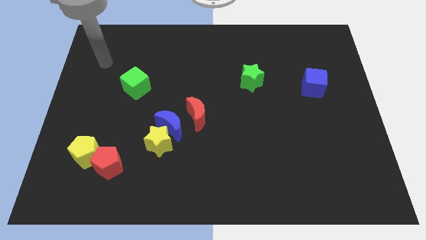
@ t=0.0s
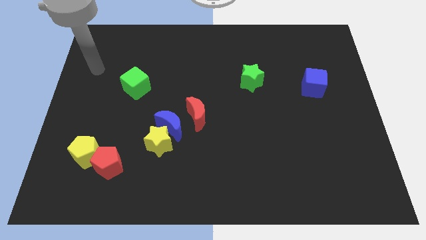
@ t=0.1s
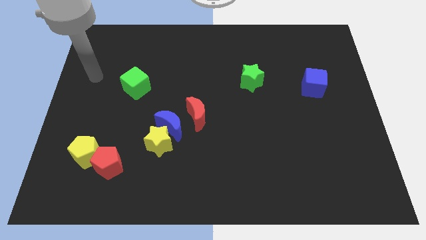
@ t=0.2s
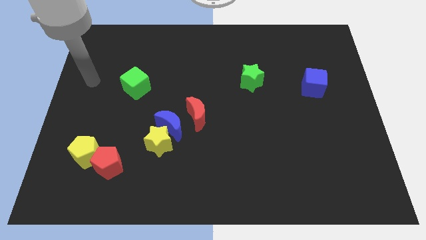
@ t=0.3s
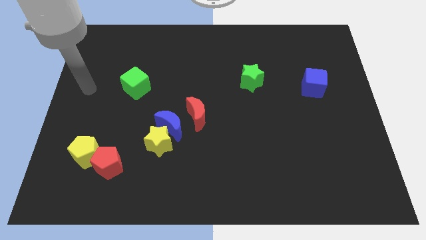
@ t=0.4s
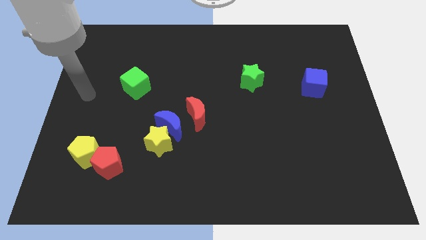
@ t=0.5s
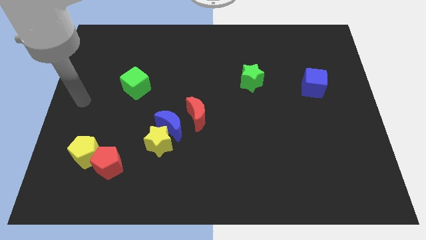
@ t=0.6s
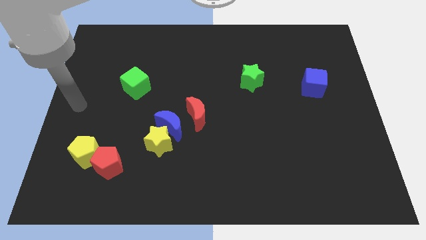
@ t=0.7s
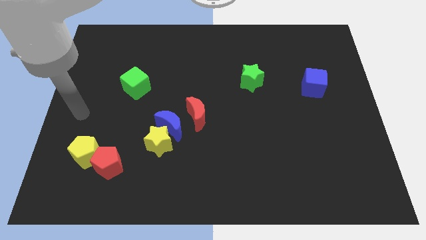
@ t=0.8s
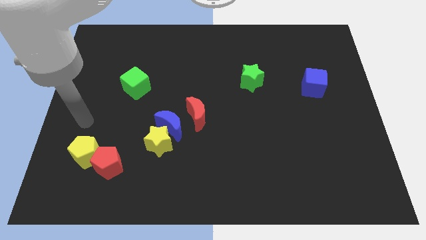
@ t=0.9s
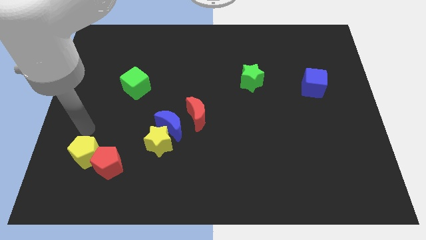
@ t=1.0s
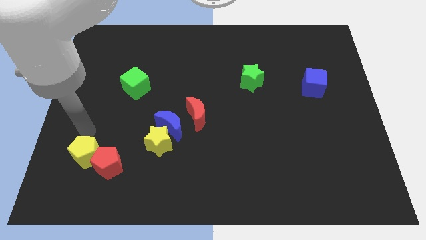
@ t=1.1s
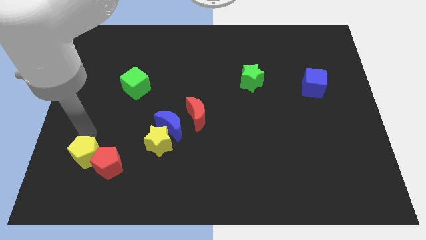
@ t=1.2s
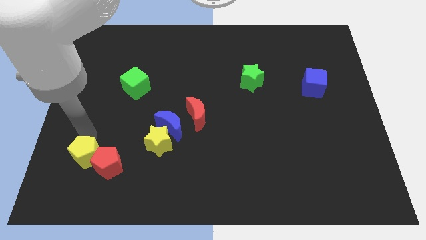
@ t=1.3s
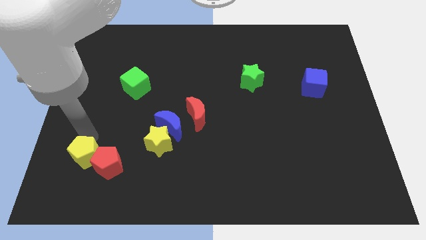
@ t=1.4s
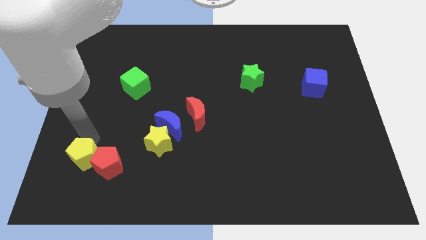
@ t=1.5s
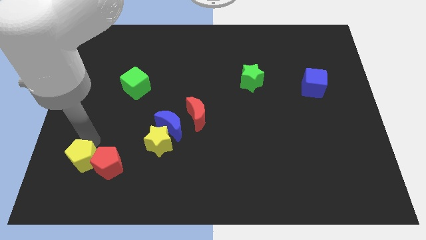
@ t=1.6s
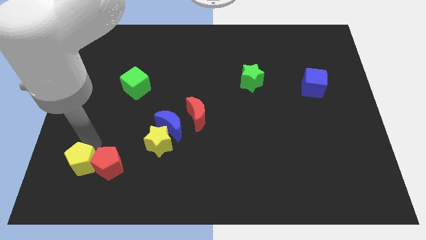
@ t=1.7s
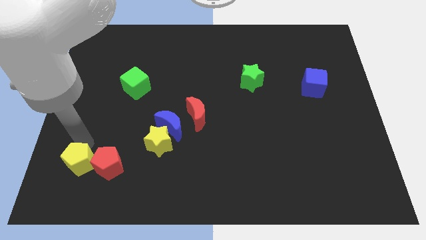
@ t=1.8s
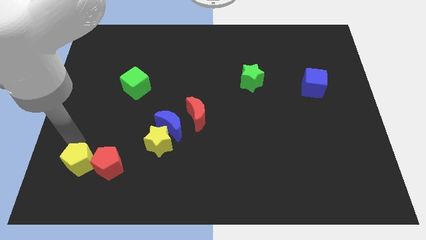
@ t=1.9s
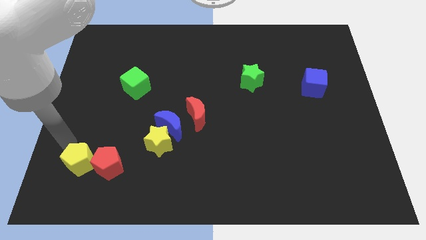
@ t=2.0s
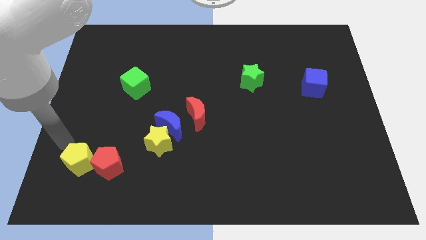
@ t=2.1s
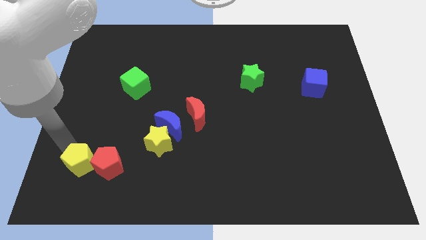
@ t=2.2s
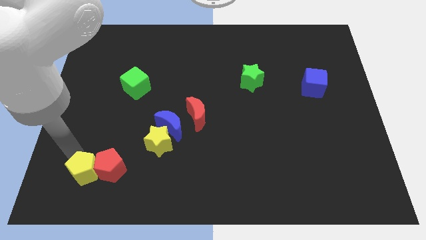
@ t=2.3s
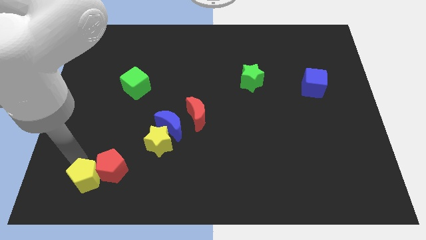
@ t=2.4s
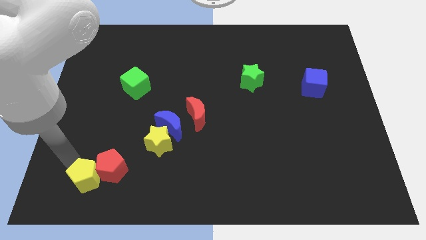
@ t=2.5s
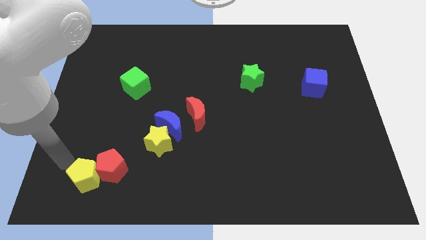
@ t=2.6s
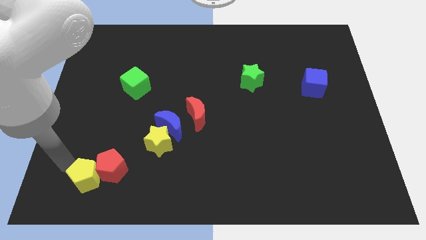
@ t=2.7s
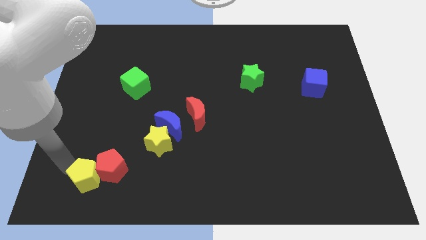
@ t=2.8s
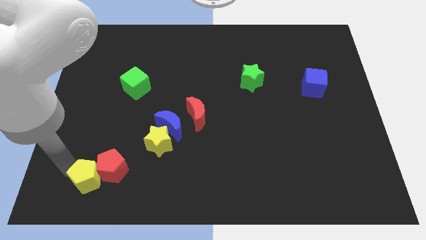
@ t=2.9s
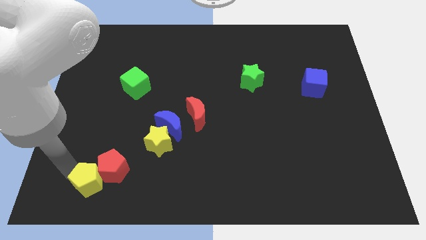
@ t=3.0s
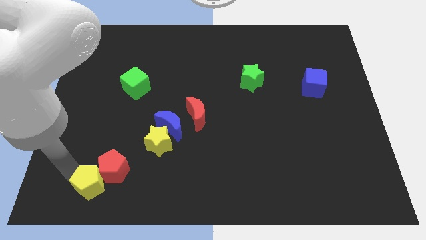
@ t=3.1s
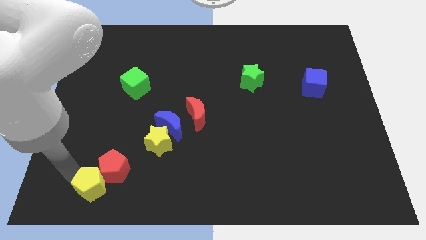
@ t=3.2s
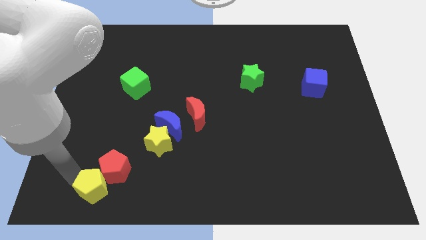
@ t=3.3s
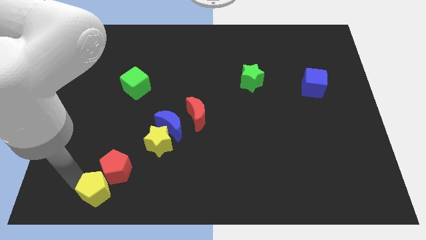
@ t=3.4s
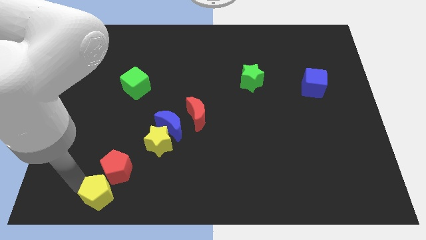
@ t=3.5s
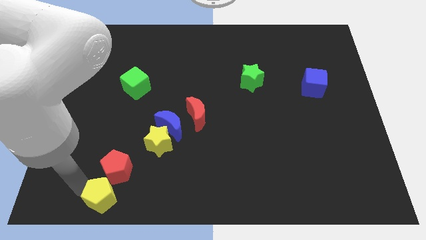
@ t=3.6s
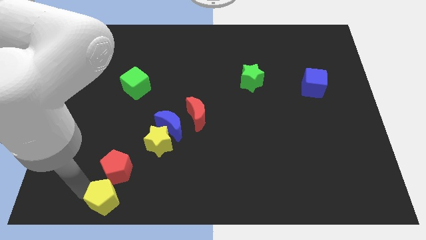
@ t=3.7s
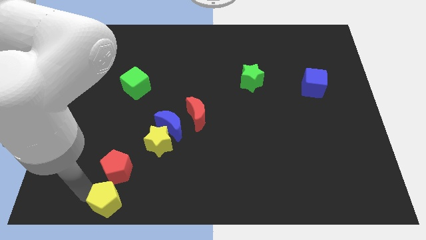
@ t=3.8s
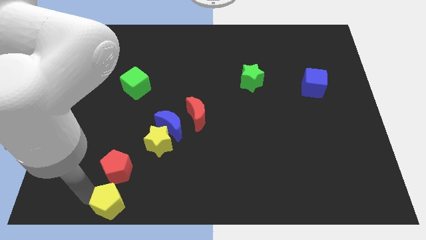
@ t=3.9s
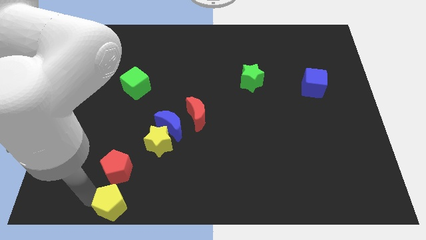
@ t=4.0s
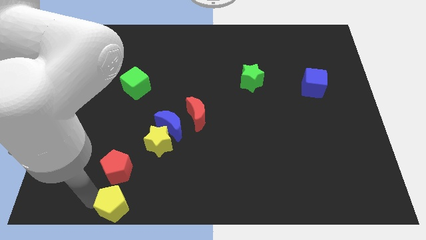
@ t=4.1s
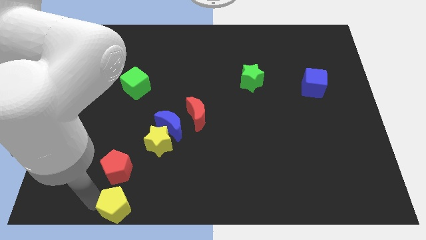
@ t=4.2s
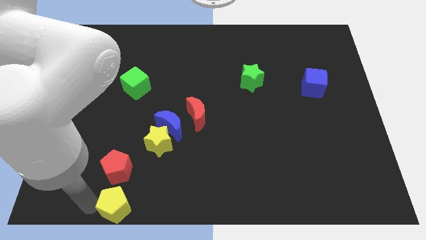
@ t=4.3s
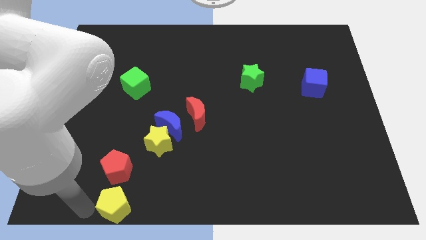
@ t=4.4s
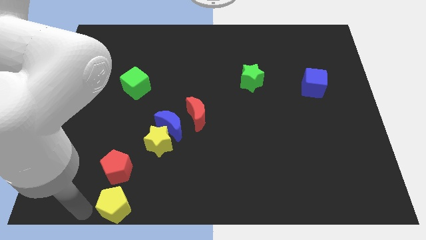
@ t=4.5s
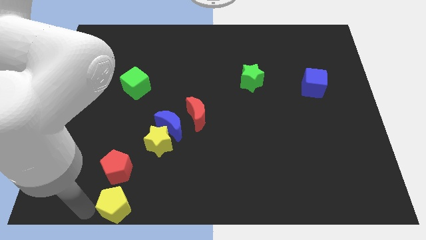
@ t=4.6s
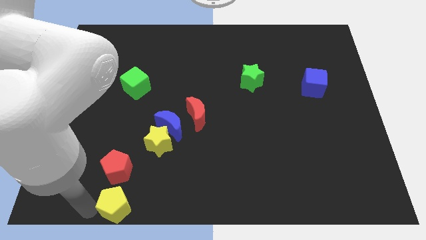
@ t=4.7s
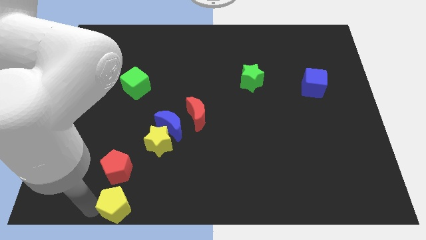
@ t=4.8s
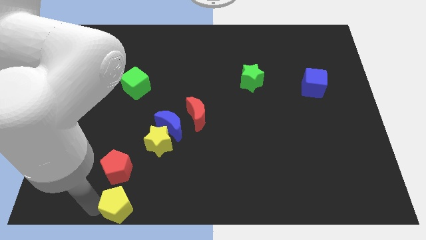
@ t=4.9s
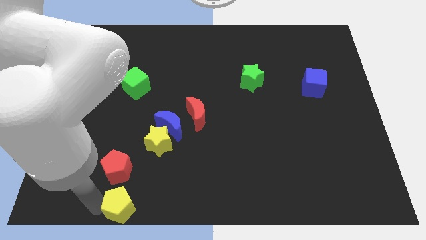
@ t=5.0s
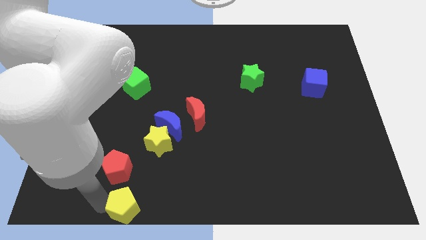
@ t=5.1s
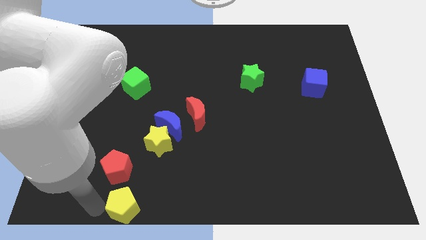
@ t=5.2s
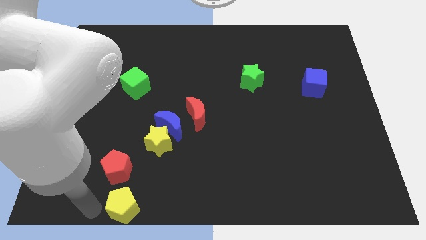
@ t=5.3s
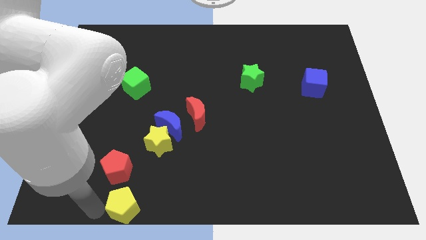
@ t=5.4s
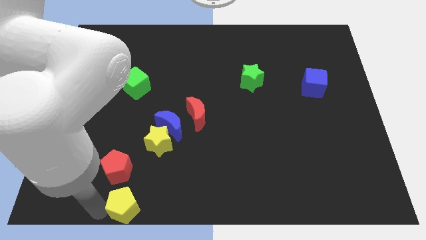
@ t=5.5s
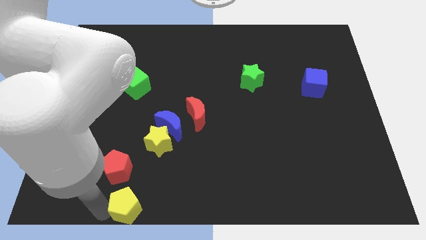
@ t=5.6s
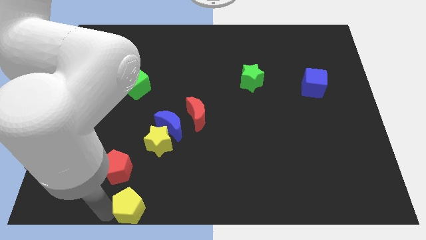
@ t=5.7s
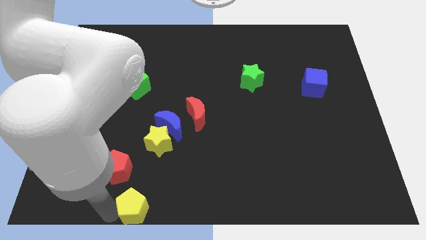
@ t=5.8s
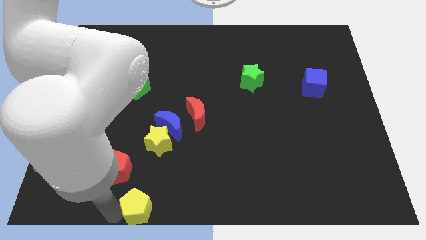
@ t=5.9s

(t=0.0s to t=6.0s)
push the yellow pentagon to the bottom

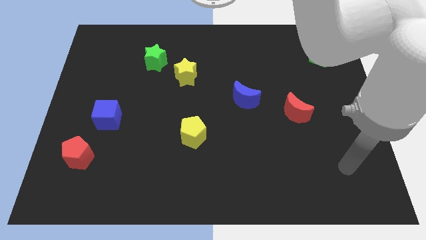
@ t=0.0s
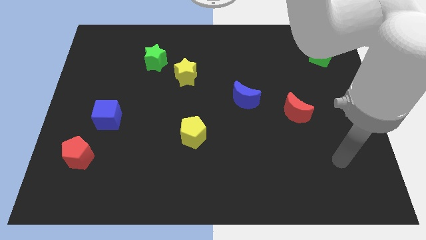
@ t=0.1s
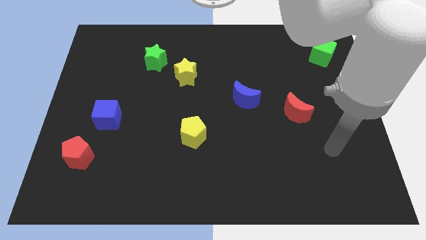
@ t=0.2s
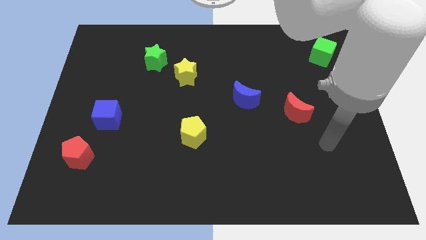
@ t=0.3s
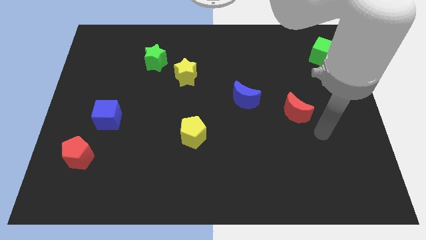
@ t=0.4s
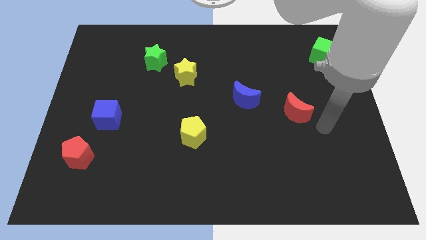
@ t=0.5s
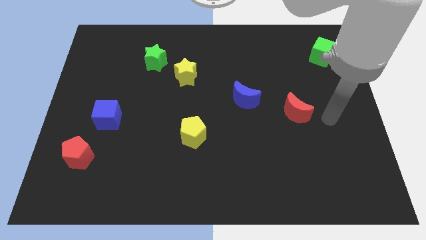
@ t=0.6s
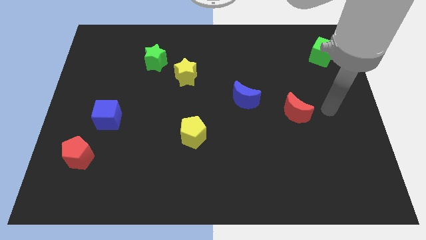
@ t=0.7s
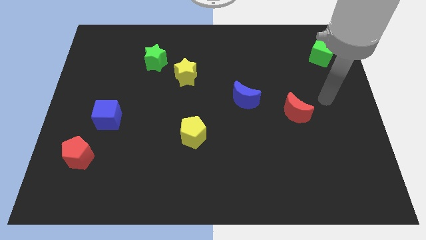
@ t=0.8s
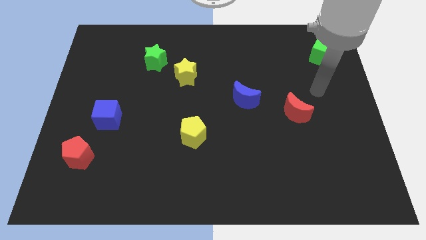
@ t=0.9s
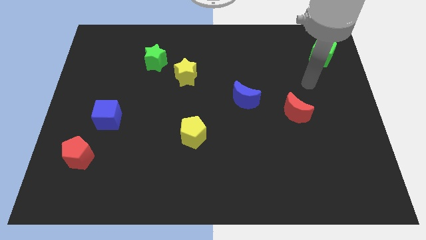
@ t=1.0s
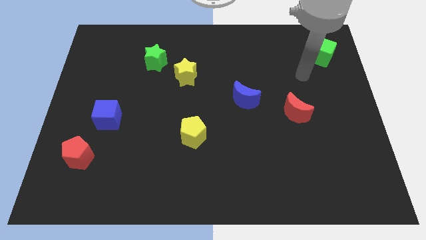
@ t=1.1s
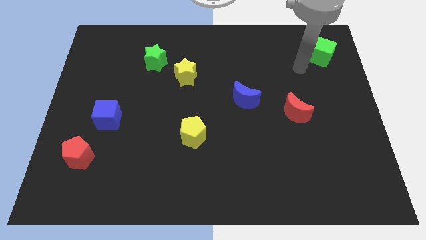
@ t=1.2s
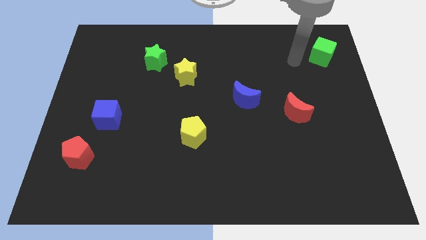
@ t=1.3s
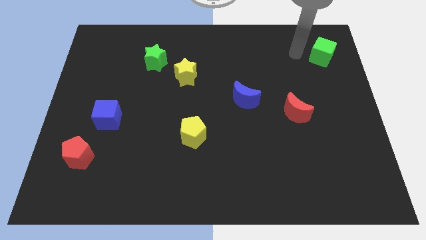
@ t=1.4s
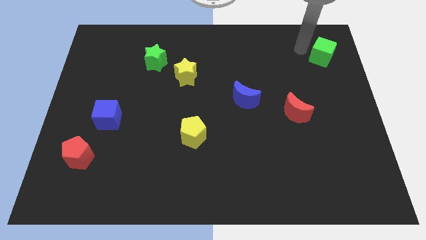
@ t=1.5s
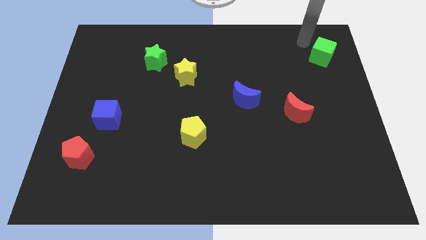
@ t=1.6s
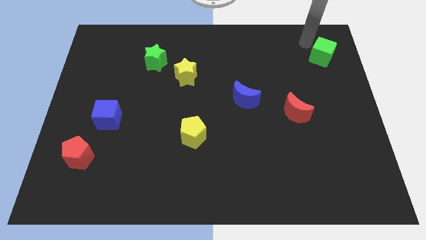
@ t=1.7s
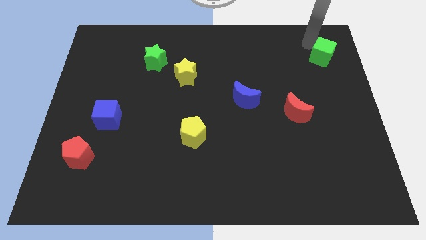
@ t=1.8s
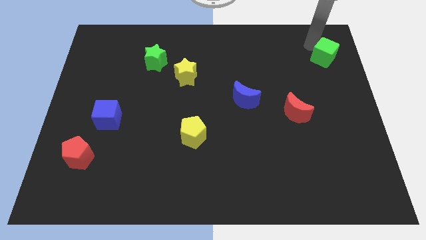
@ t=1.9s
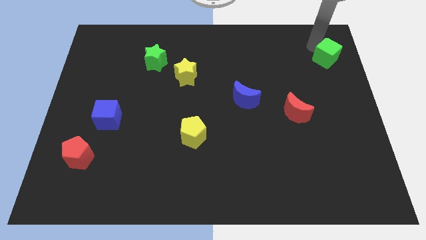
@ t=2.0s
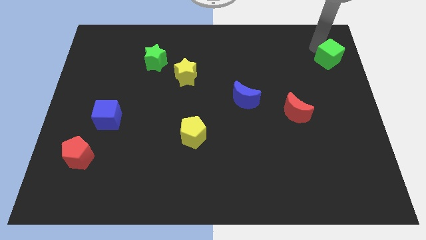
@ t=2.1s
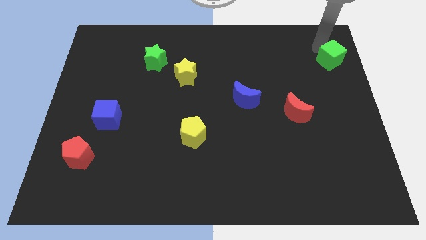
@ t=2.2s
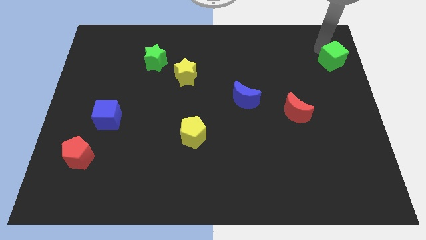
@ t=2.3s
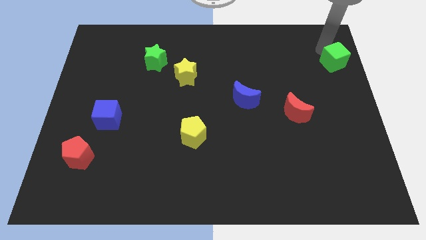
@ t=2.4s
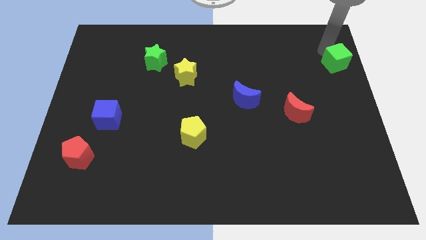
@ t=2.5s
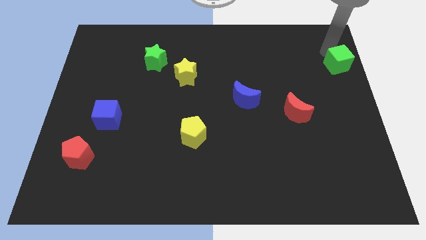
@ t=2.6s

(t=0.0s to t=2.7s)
slide the green cube to the center right
